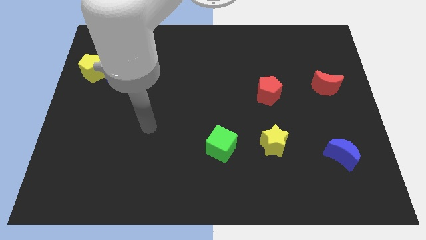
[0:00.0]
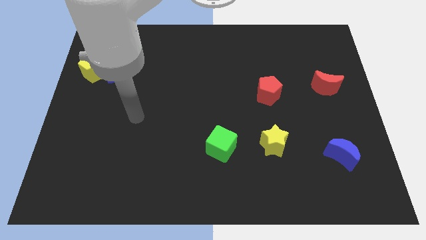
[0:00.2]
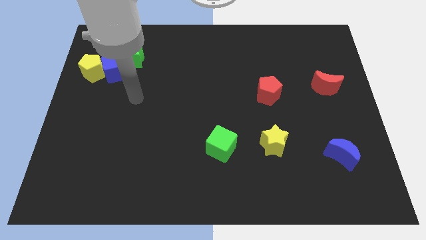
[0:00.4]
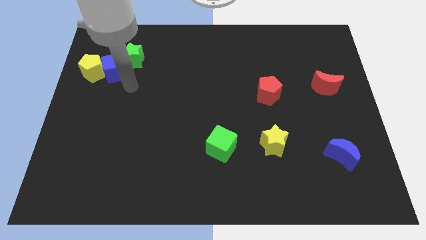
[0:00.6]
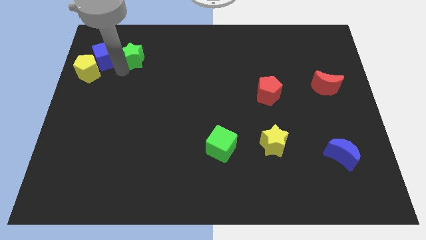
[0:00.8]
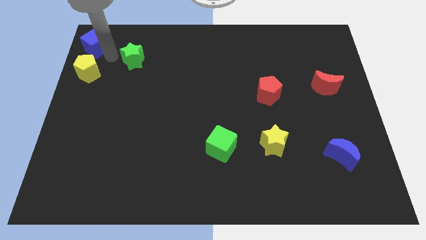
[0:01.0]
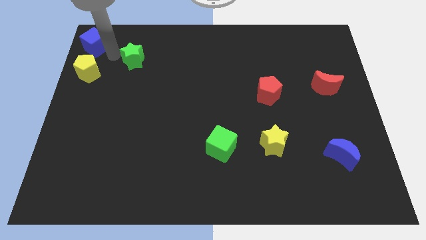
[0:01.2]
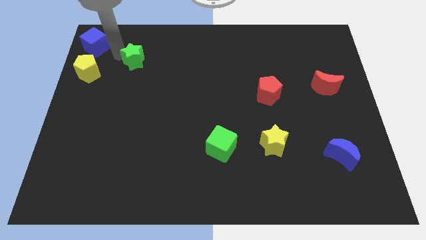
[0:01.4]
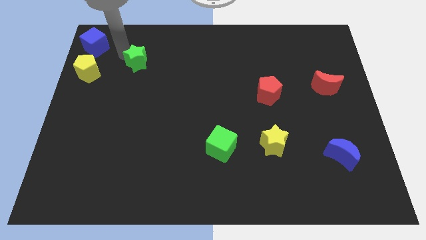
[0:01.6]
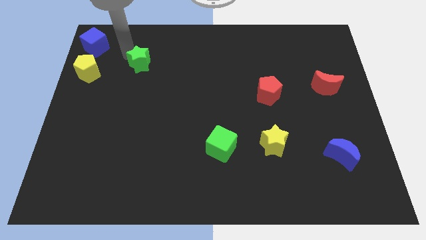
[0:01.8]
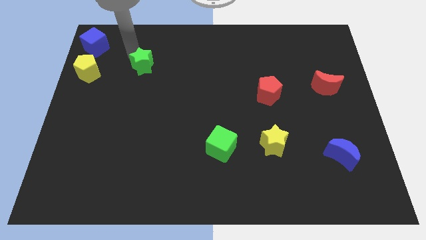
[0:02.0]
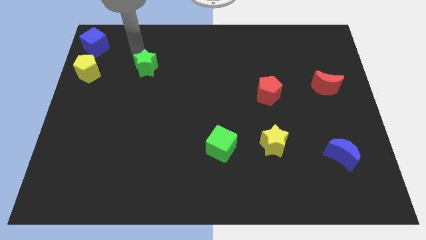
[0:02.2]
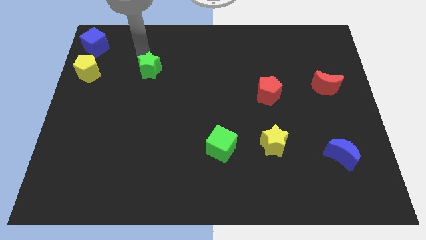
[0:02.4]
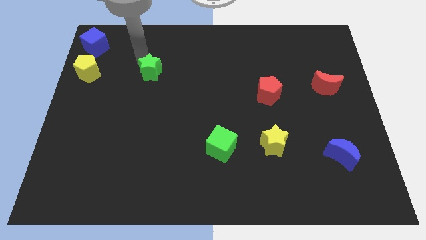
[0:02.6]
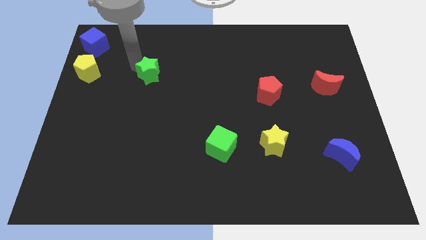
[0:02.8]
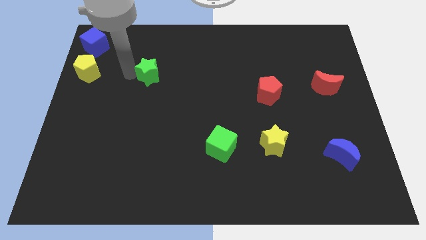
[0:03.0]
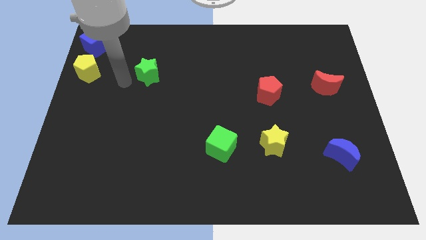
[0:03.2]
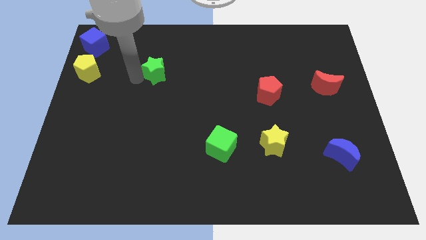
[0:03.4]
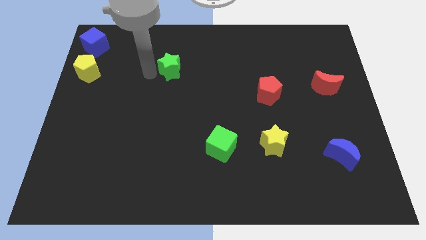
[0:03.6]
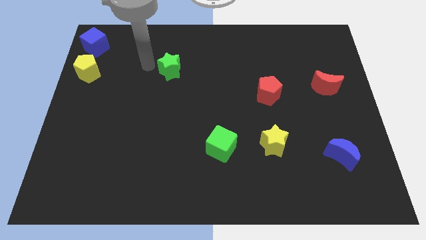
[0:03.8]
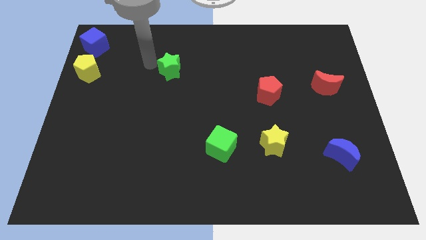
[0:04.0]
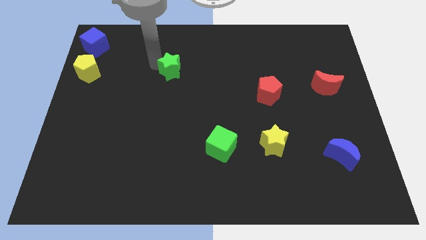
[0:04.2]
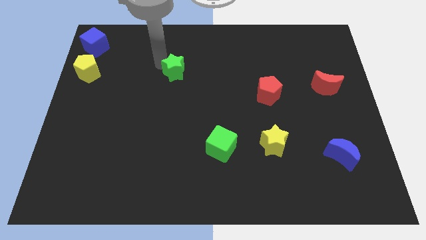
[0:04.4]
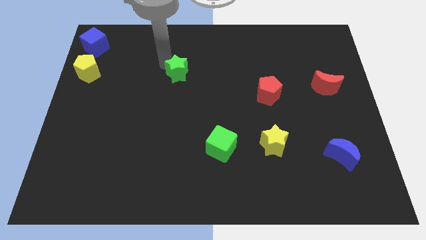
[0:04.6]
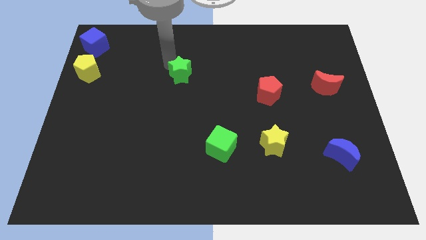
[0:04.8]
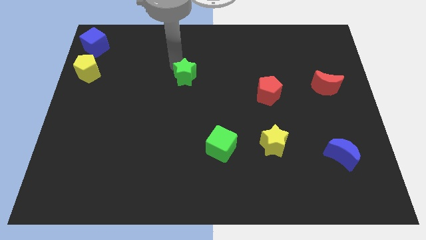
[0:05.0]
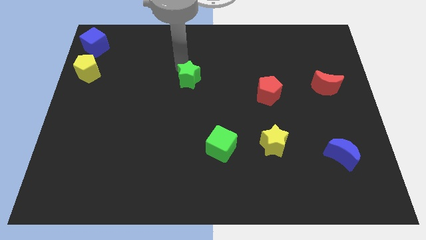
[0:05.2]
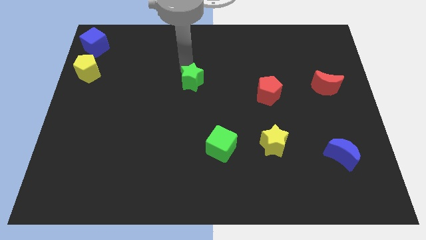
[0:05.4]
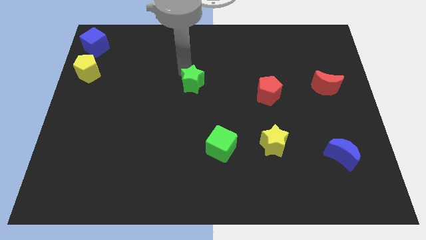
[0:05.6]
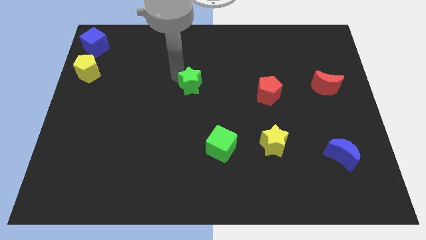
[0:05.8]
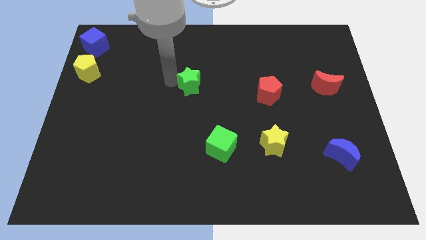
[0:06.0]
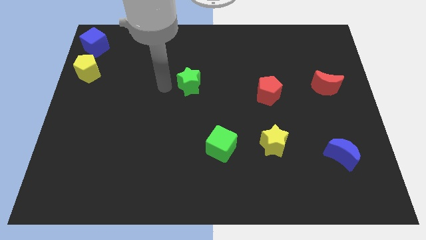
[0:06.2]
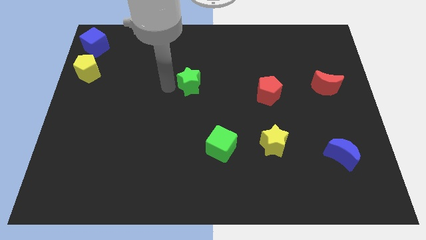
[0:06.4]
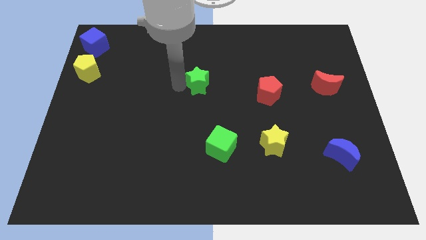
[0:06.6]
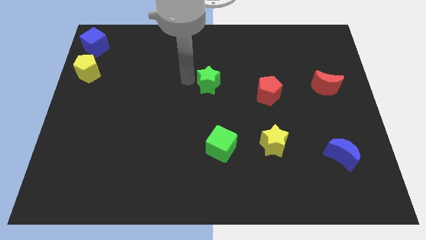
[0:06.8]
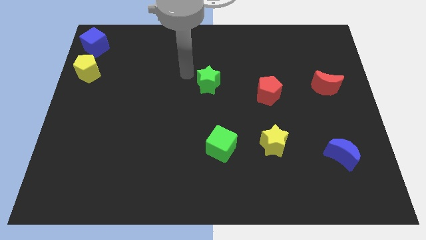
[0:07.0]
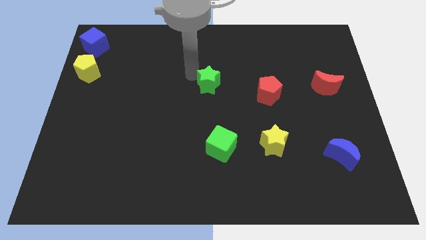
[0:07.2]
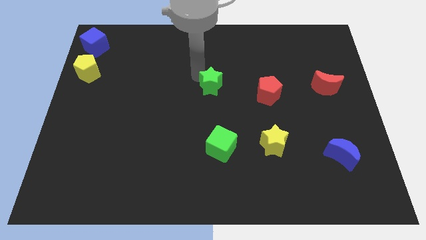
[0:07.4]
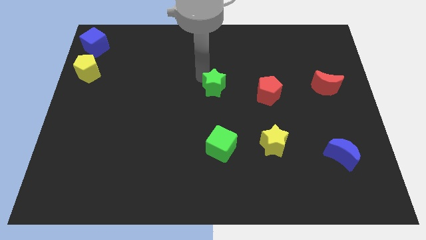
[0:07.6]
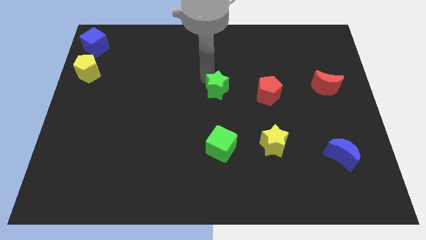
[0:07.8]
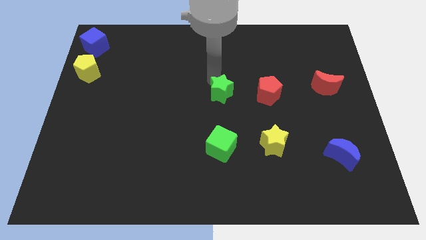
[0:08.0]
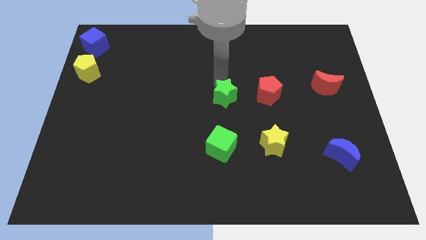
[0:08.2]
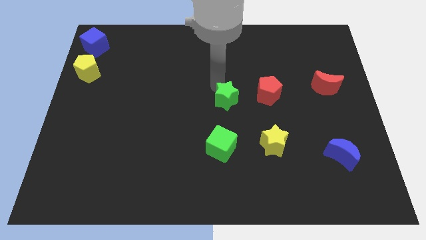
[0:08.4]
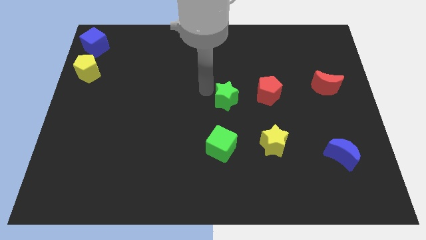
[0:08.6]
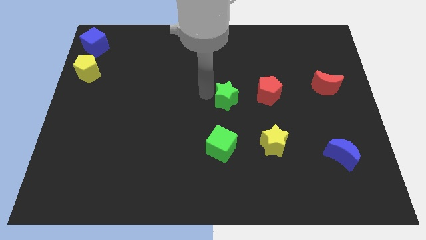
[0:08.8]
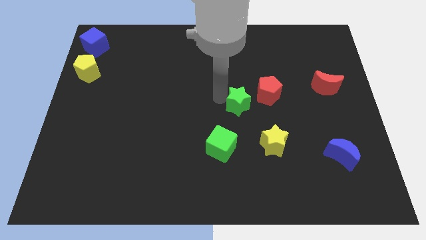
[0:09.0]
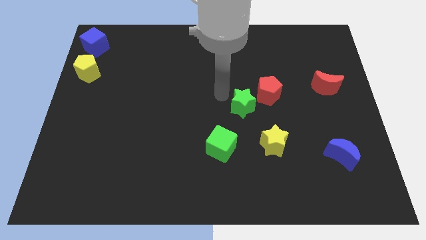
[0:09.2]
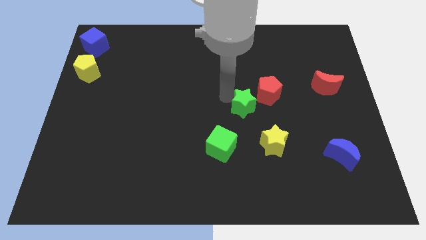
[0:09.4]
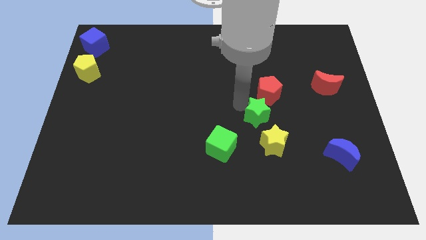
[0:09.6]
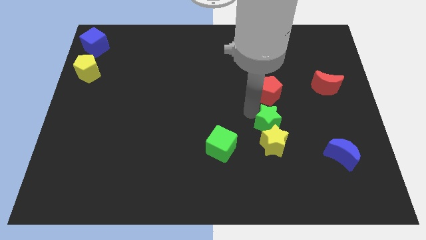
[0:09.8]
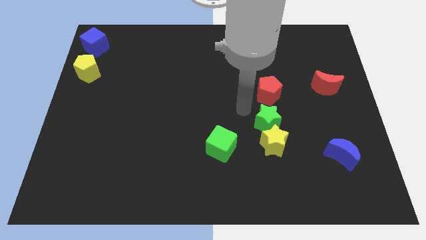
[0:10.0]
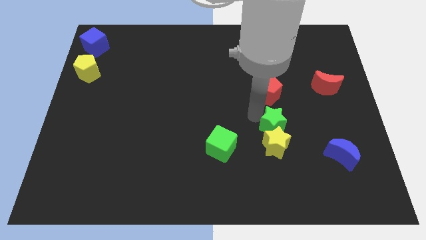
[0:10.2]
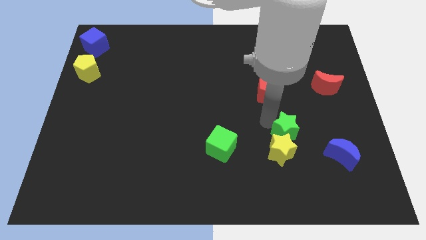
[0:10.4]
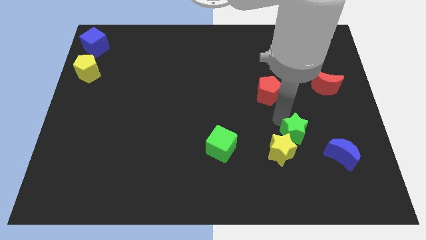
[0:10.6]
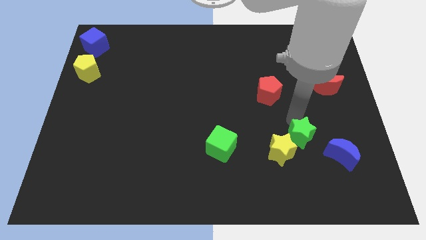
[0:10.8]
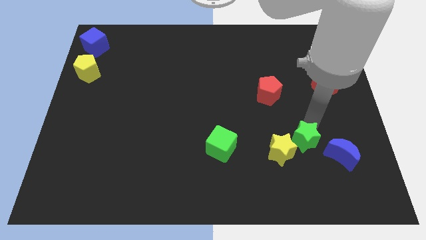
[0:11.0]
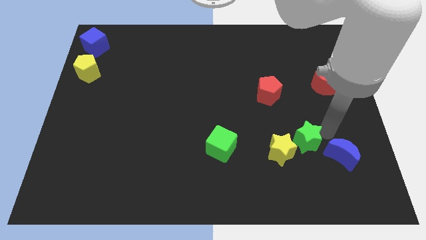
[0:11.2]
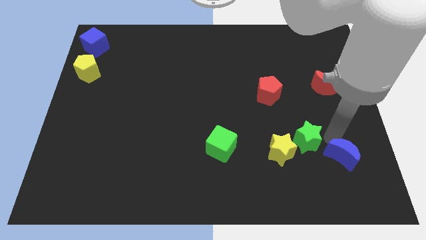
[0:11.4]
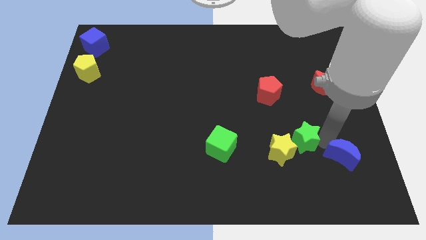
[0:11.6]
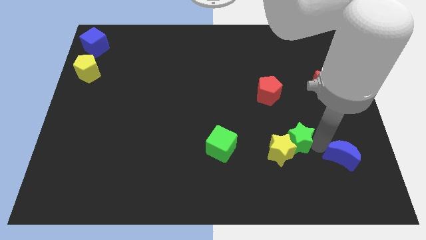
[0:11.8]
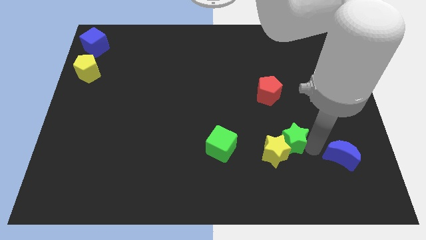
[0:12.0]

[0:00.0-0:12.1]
push the green star just right of the green cube

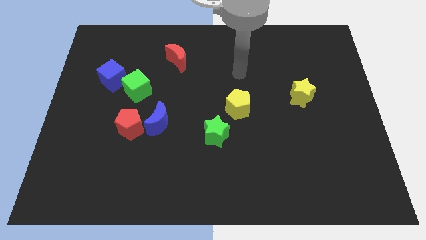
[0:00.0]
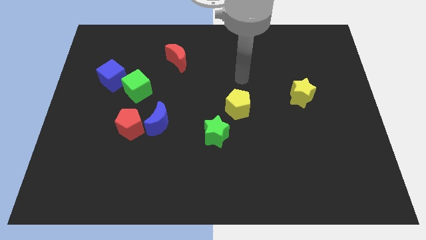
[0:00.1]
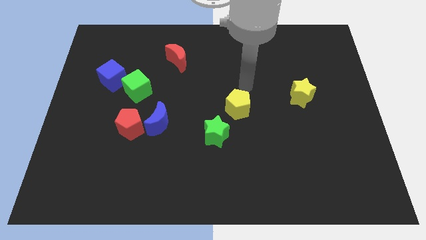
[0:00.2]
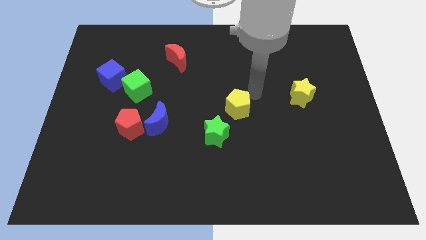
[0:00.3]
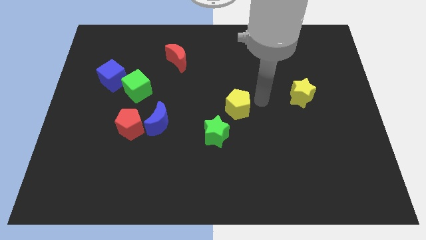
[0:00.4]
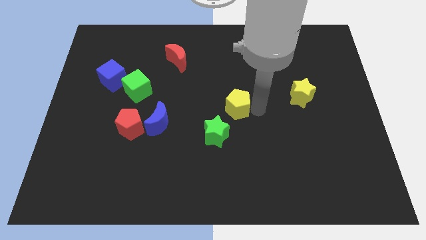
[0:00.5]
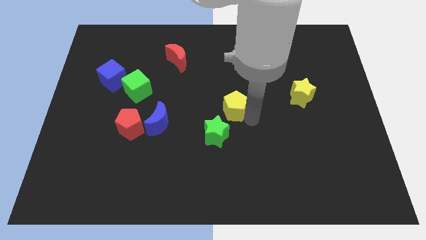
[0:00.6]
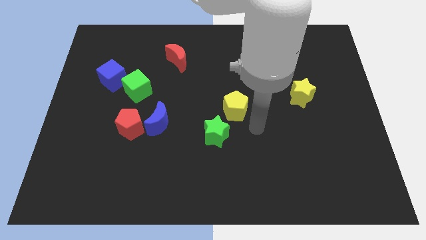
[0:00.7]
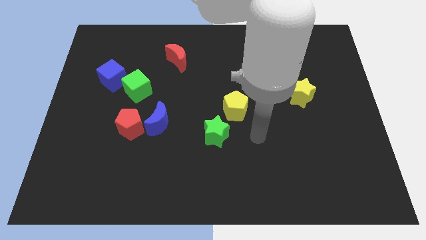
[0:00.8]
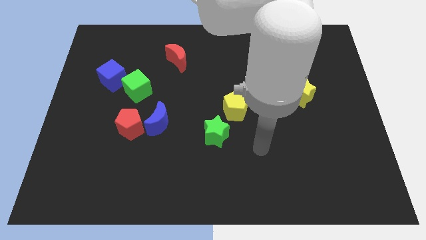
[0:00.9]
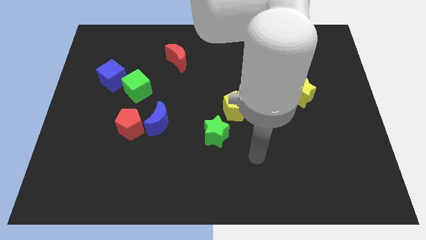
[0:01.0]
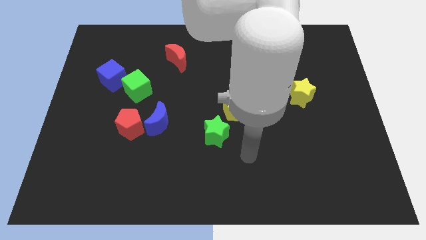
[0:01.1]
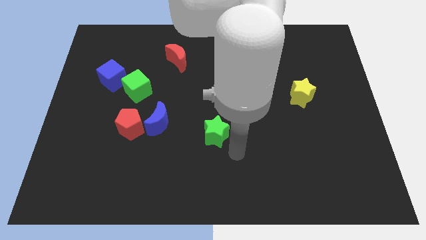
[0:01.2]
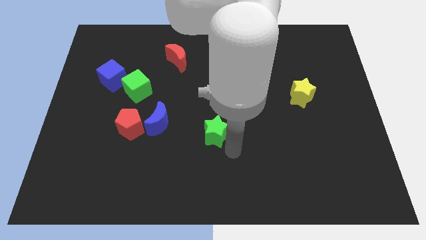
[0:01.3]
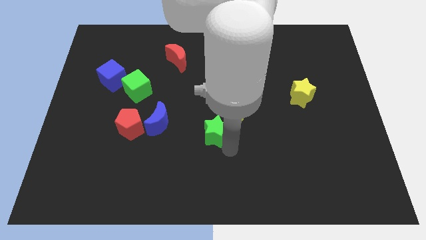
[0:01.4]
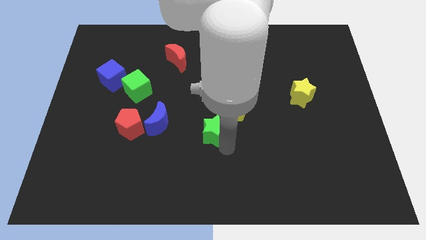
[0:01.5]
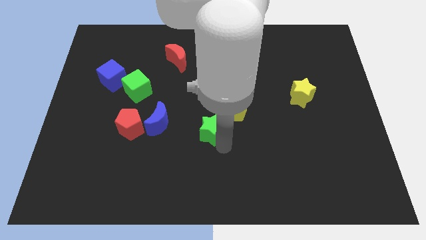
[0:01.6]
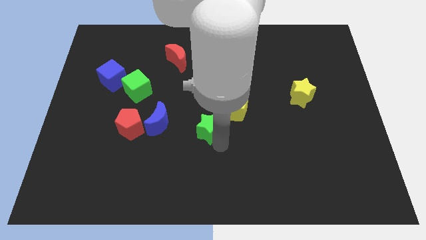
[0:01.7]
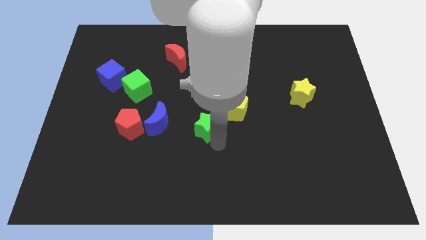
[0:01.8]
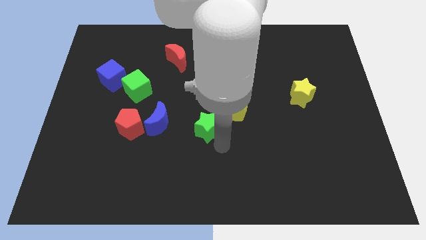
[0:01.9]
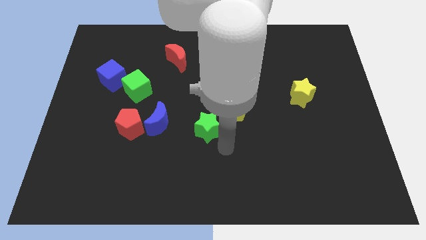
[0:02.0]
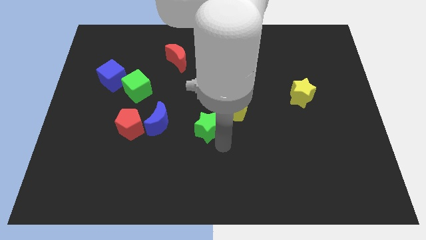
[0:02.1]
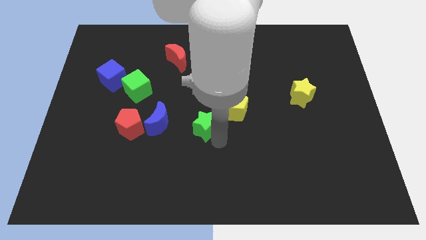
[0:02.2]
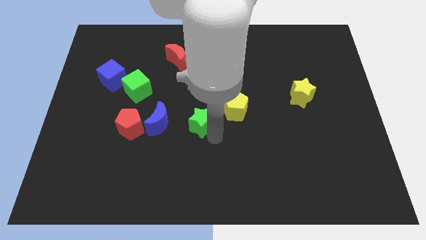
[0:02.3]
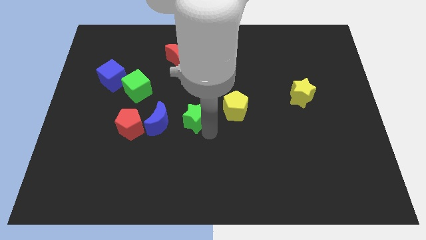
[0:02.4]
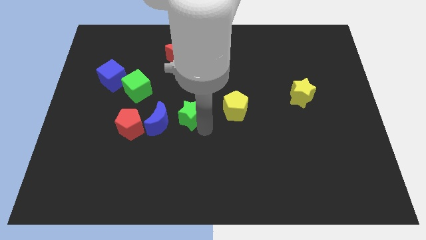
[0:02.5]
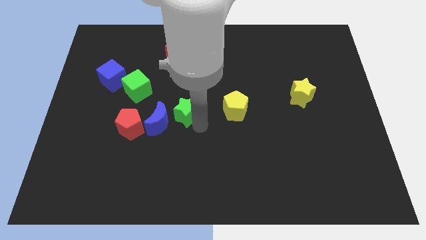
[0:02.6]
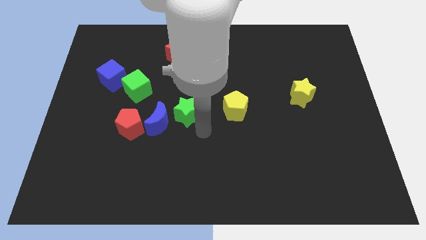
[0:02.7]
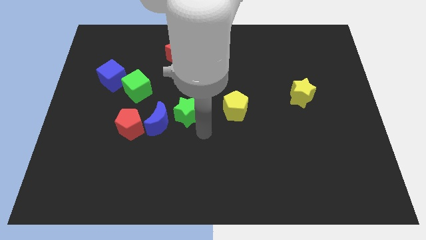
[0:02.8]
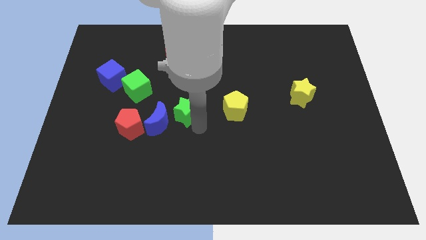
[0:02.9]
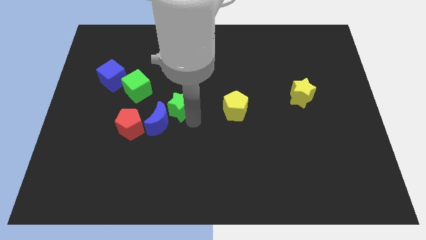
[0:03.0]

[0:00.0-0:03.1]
push the green star to the top of the blue moon
